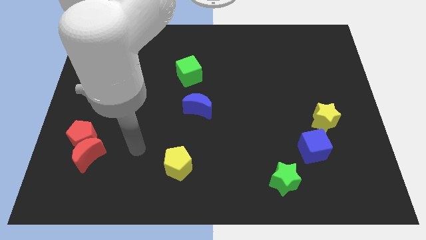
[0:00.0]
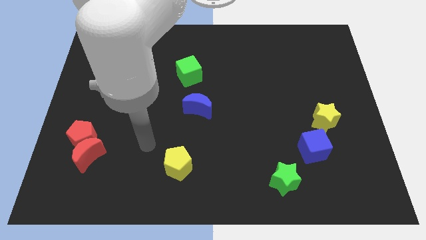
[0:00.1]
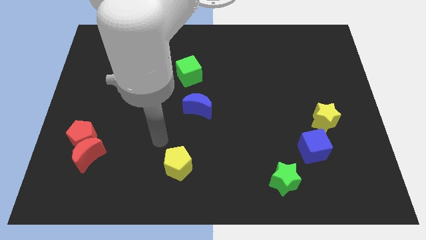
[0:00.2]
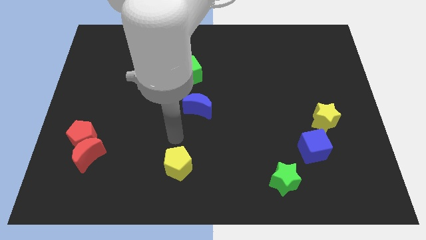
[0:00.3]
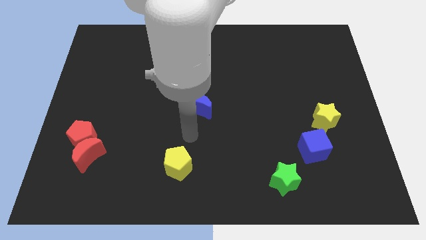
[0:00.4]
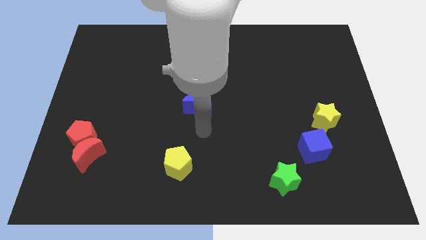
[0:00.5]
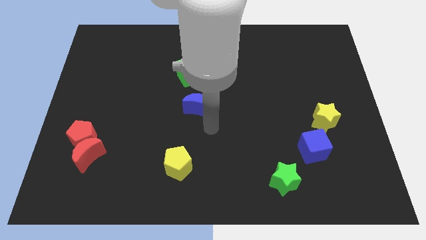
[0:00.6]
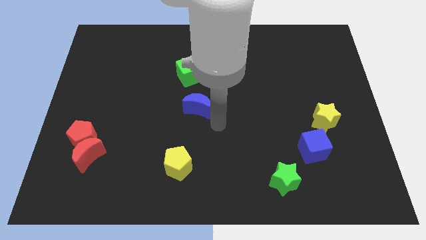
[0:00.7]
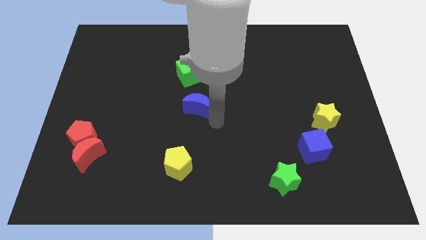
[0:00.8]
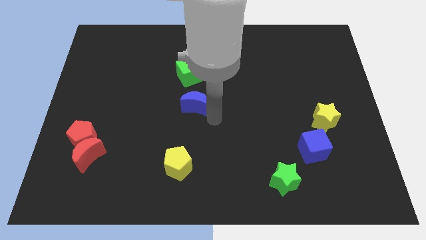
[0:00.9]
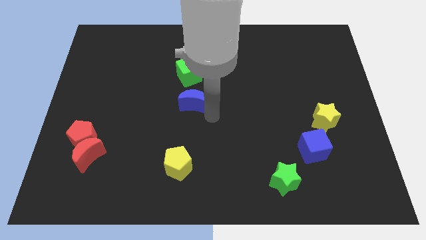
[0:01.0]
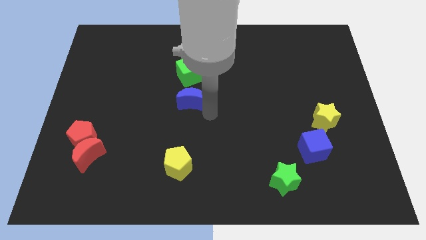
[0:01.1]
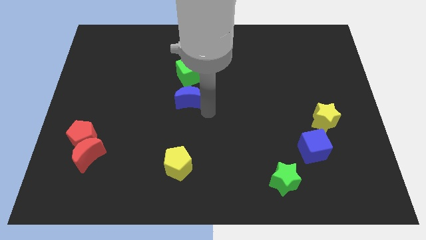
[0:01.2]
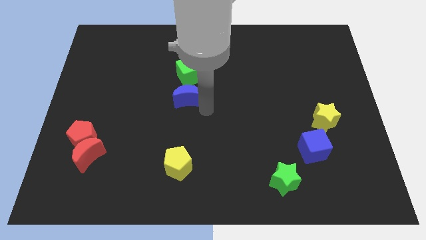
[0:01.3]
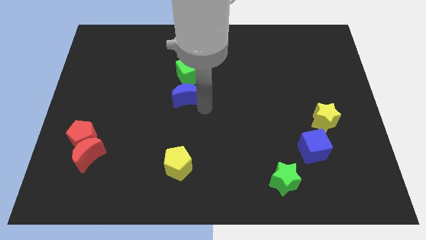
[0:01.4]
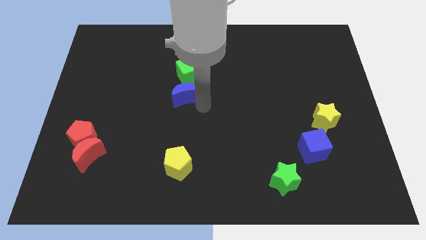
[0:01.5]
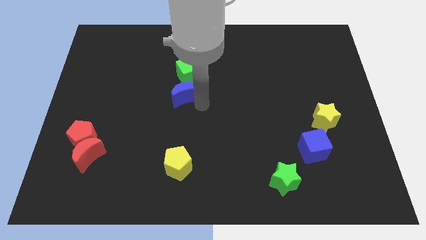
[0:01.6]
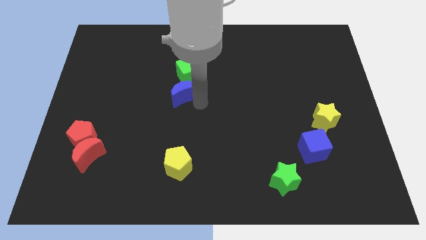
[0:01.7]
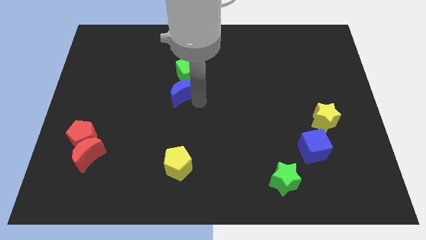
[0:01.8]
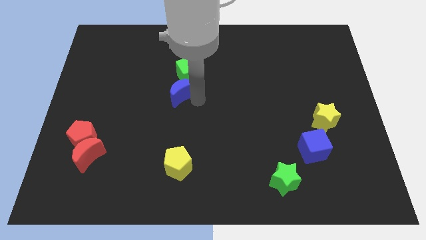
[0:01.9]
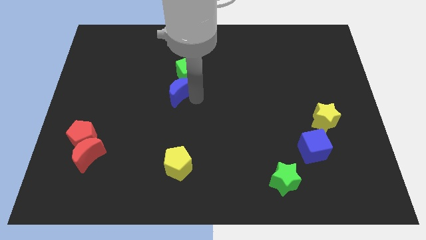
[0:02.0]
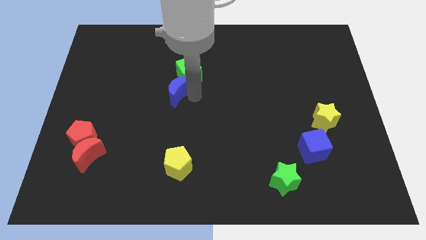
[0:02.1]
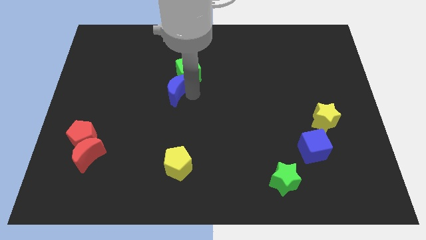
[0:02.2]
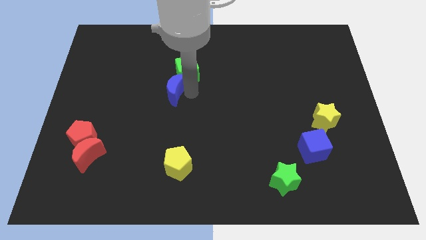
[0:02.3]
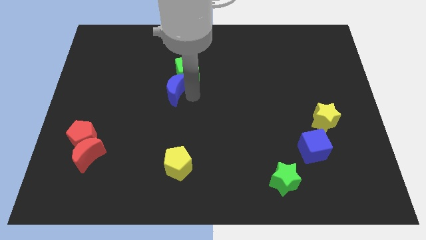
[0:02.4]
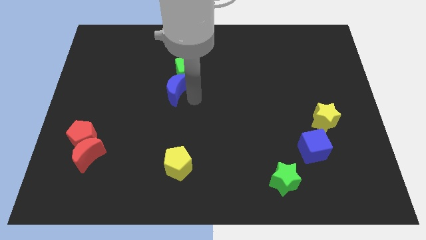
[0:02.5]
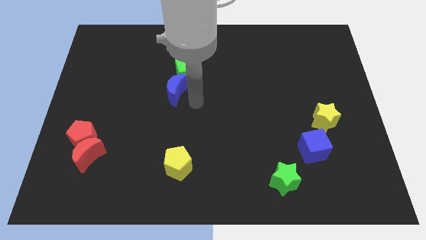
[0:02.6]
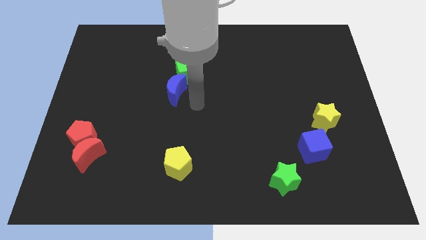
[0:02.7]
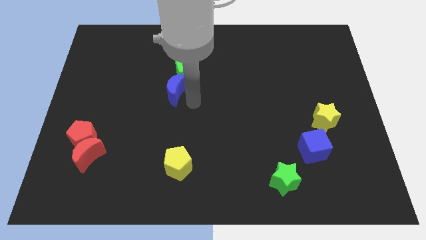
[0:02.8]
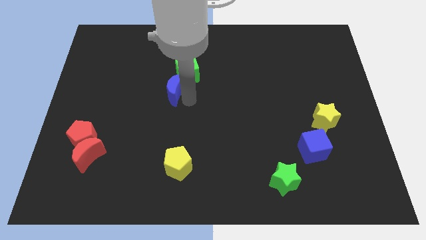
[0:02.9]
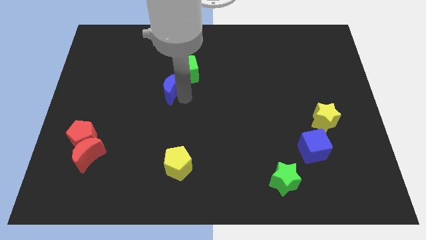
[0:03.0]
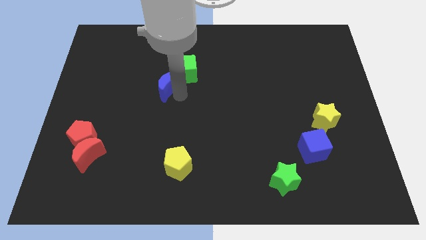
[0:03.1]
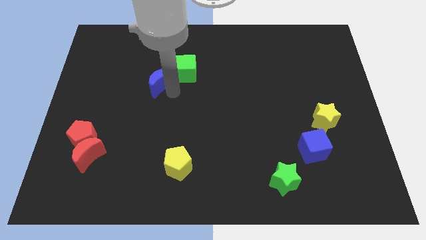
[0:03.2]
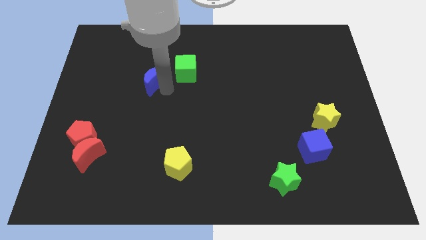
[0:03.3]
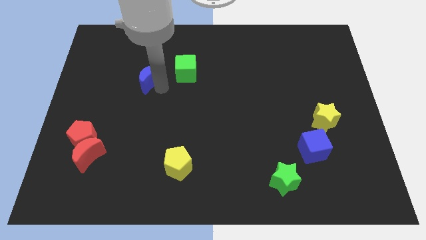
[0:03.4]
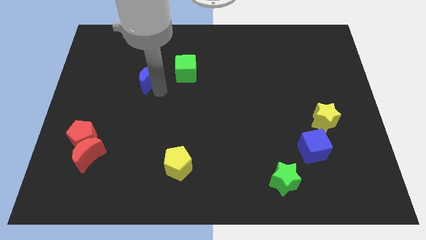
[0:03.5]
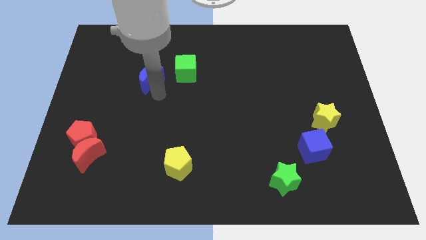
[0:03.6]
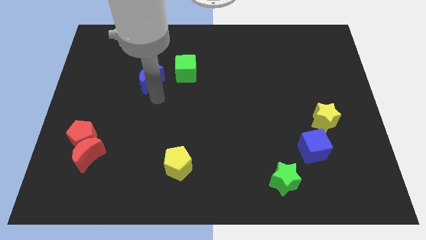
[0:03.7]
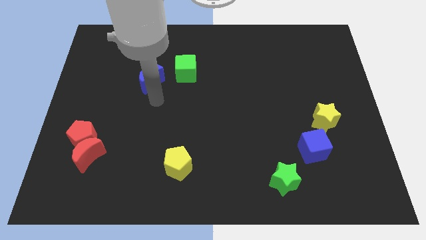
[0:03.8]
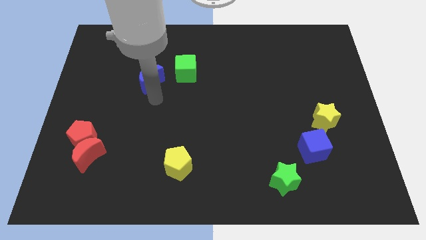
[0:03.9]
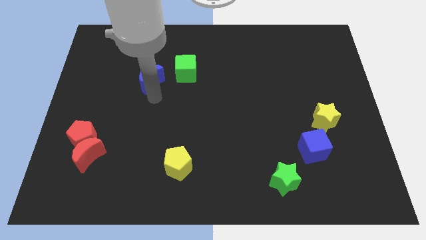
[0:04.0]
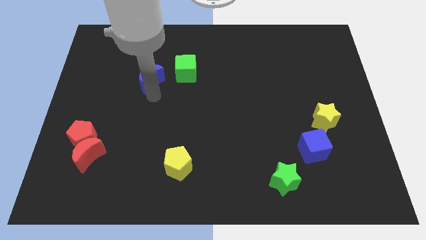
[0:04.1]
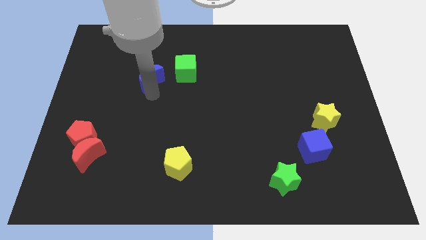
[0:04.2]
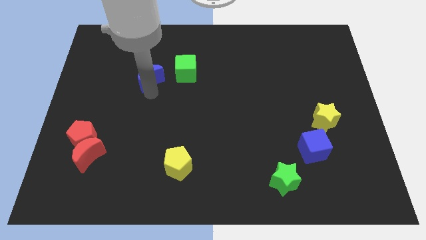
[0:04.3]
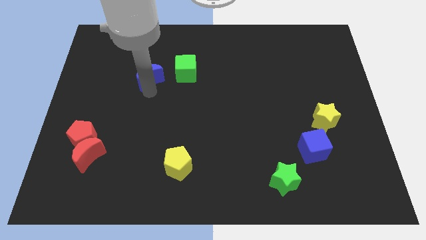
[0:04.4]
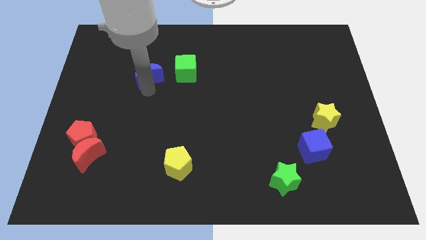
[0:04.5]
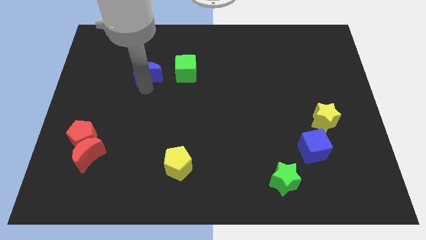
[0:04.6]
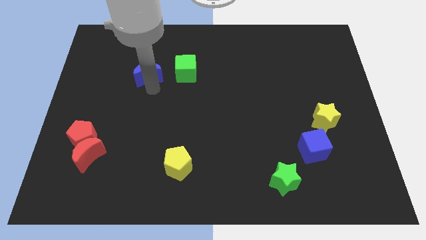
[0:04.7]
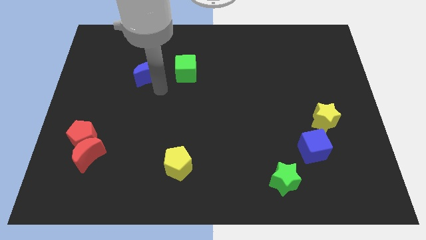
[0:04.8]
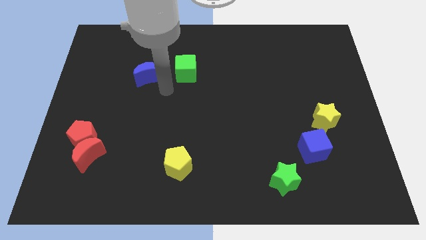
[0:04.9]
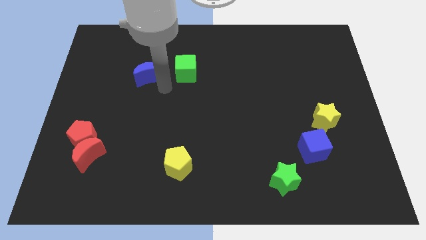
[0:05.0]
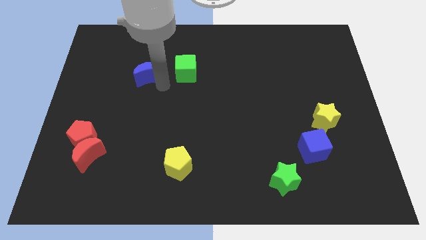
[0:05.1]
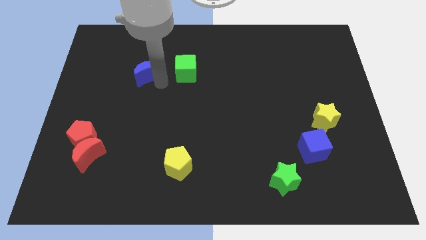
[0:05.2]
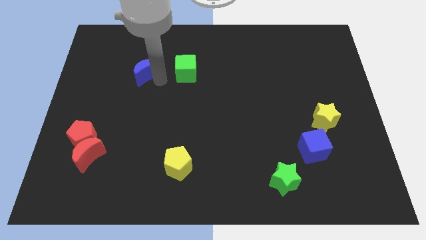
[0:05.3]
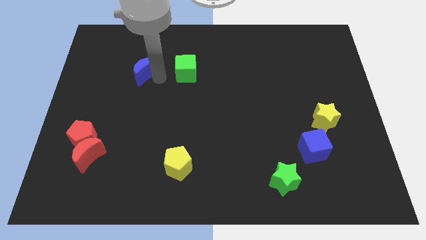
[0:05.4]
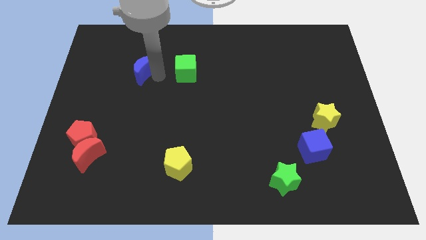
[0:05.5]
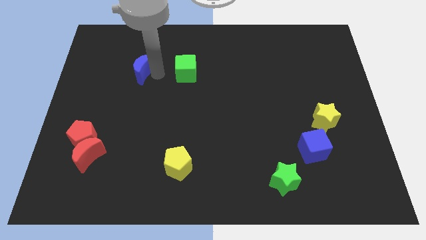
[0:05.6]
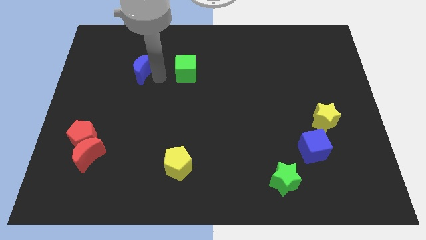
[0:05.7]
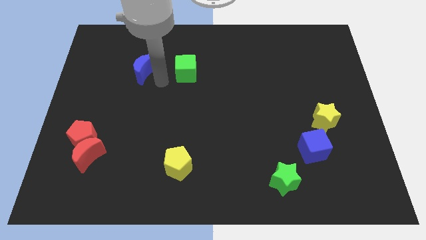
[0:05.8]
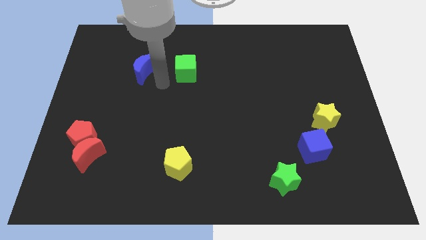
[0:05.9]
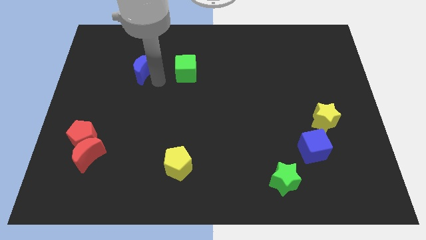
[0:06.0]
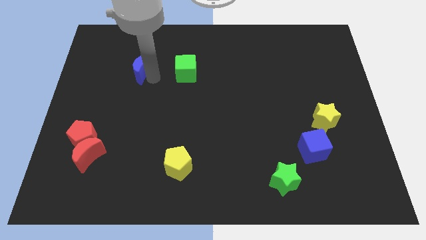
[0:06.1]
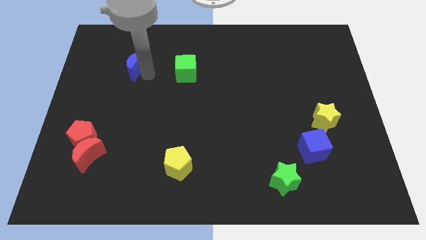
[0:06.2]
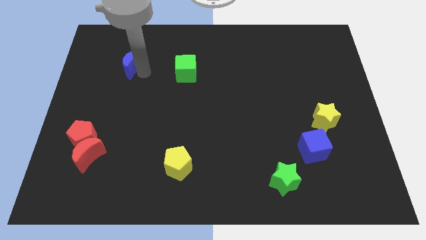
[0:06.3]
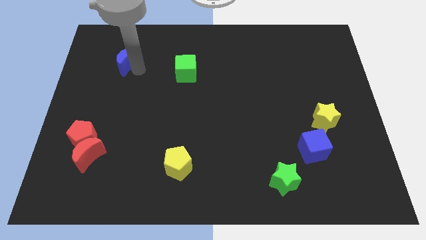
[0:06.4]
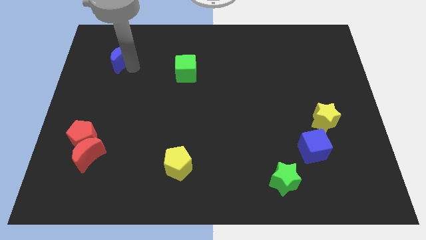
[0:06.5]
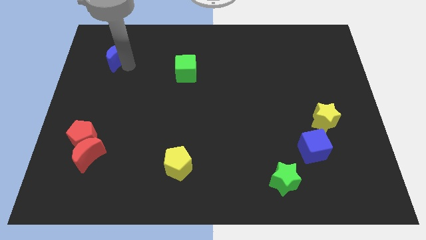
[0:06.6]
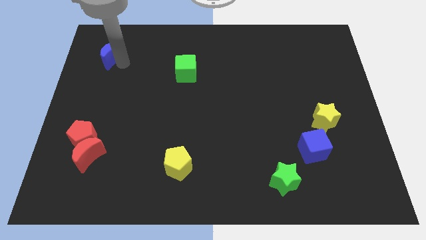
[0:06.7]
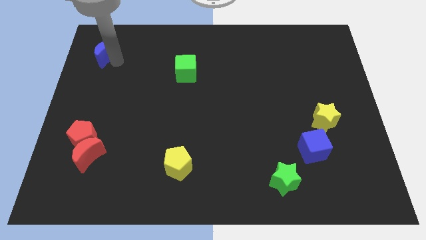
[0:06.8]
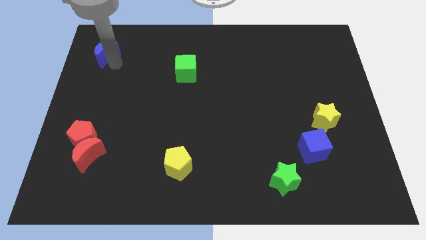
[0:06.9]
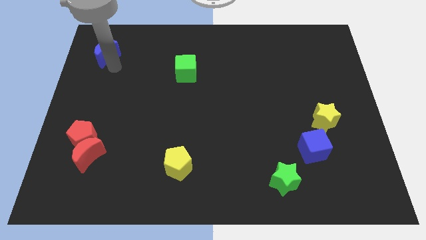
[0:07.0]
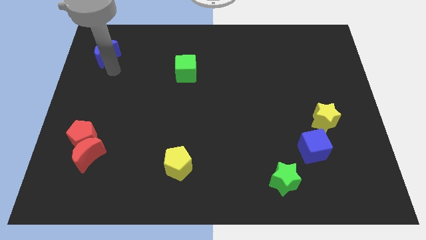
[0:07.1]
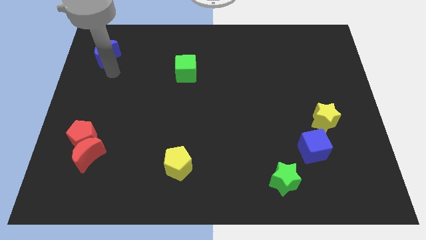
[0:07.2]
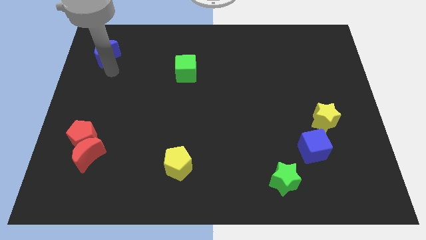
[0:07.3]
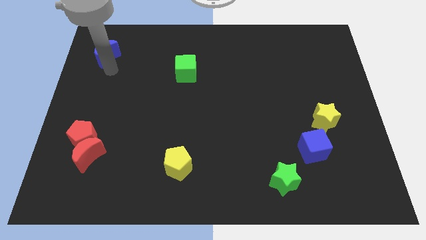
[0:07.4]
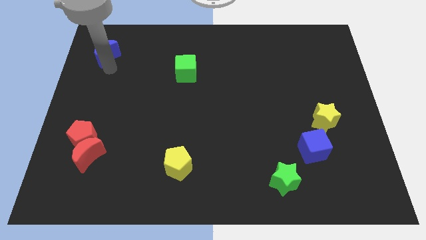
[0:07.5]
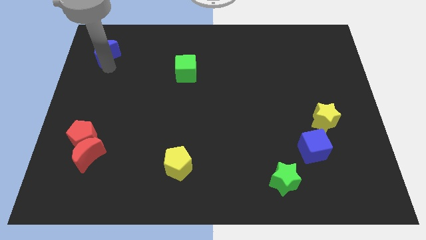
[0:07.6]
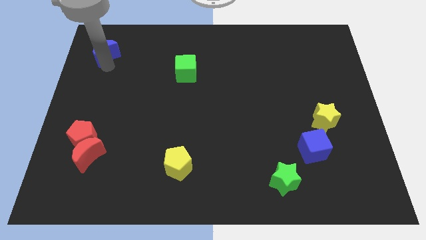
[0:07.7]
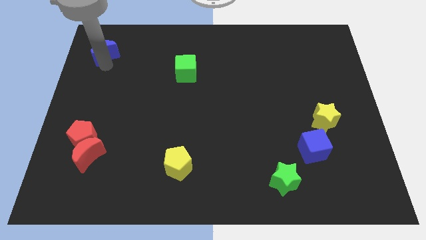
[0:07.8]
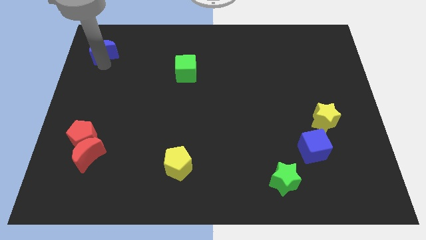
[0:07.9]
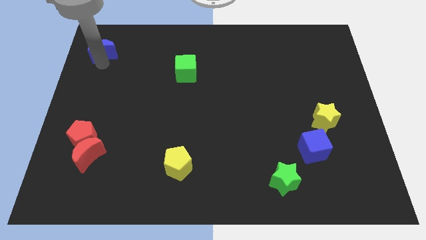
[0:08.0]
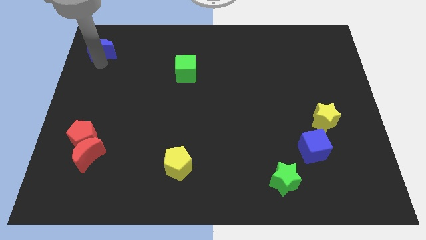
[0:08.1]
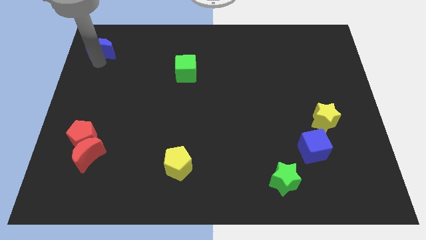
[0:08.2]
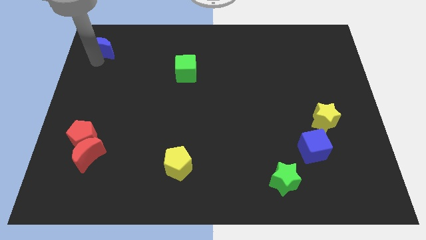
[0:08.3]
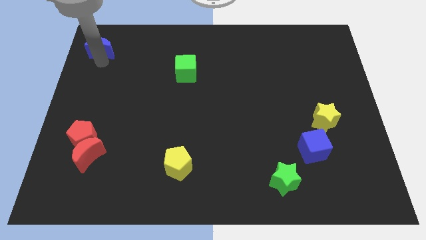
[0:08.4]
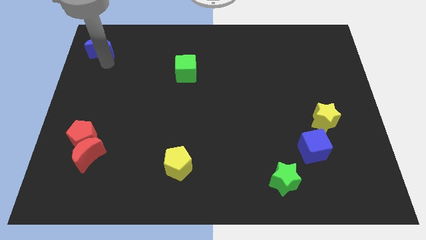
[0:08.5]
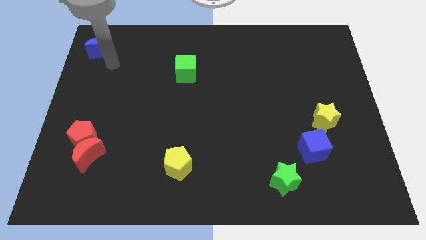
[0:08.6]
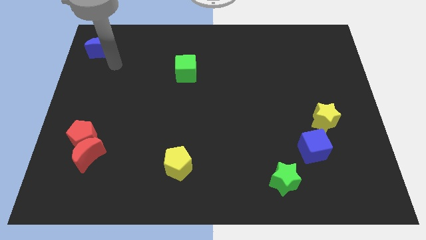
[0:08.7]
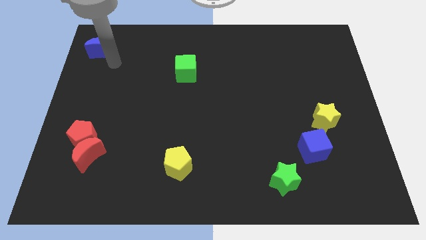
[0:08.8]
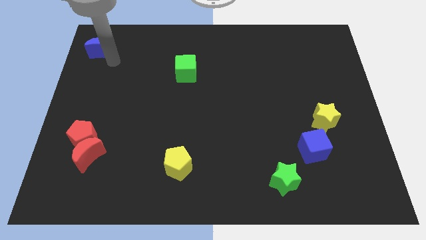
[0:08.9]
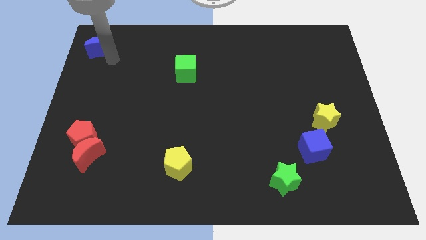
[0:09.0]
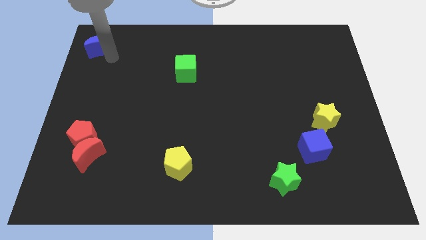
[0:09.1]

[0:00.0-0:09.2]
put the blue moon to the top left corner
